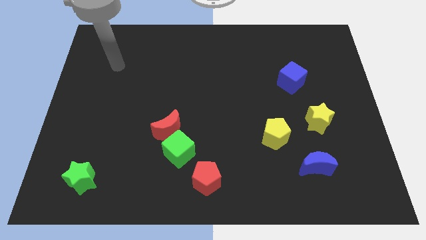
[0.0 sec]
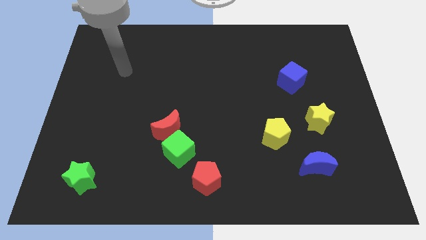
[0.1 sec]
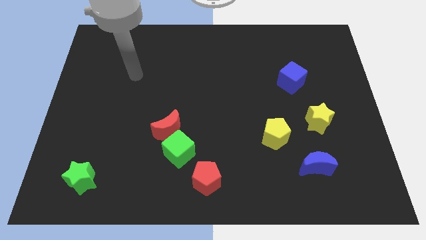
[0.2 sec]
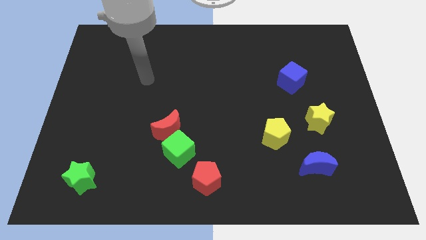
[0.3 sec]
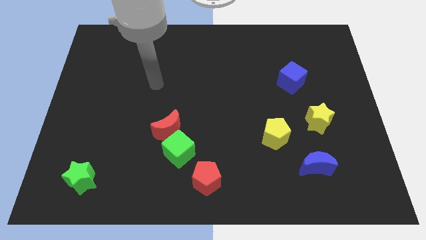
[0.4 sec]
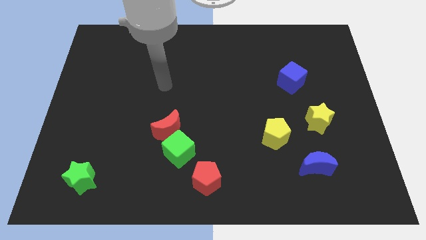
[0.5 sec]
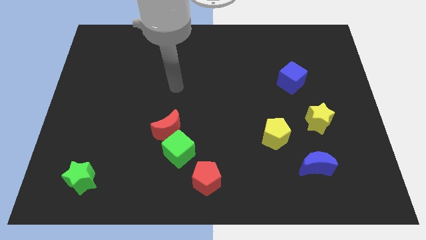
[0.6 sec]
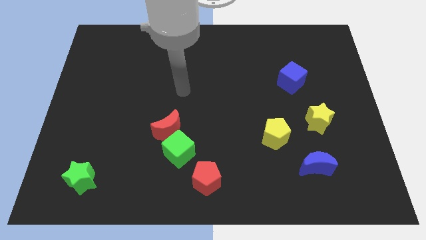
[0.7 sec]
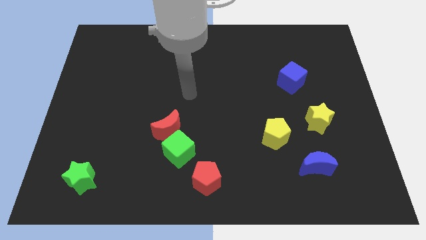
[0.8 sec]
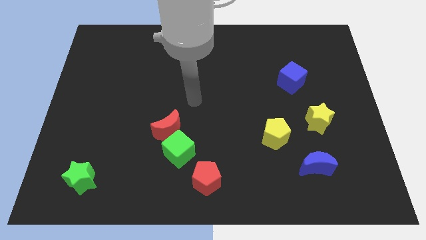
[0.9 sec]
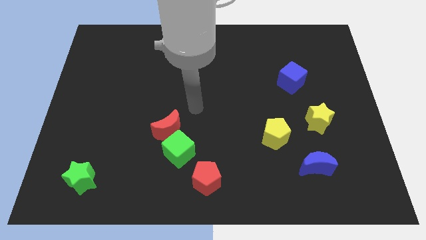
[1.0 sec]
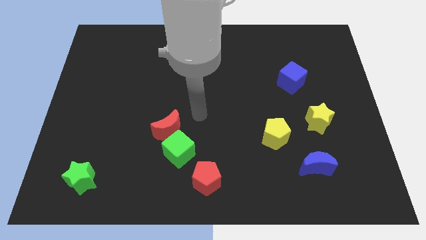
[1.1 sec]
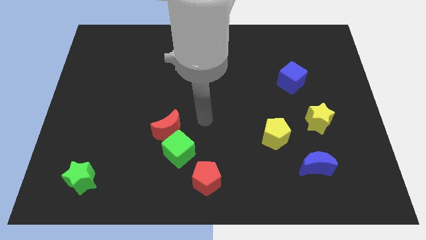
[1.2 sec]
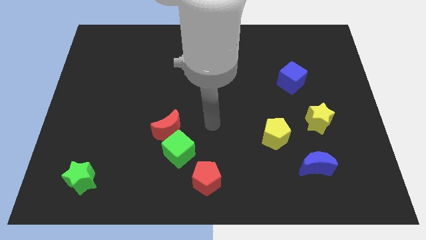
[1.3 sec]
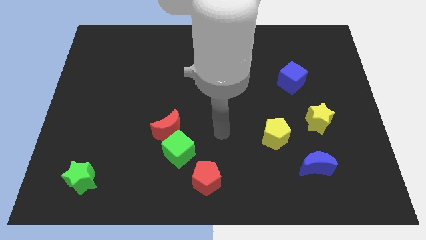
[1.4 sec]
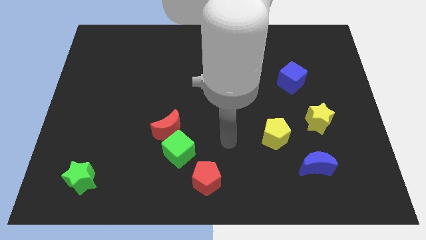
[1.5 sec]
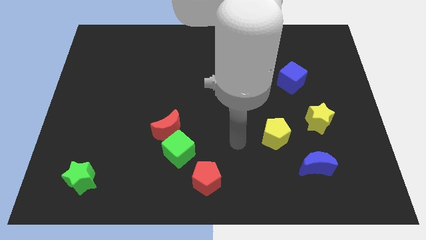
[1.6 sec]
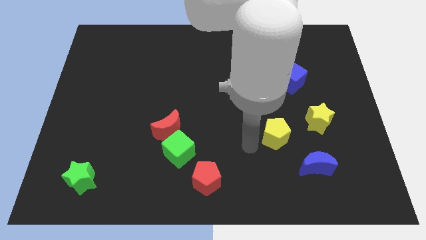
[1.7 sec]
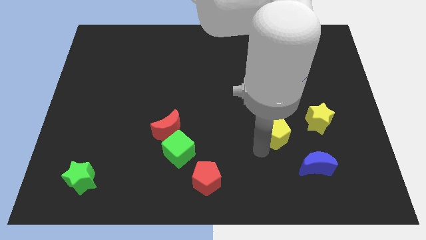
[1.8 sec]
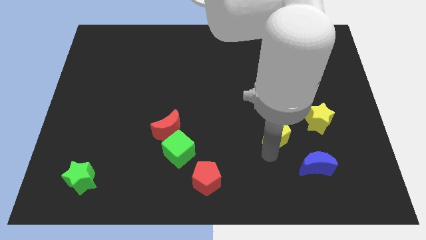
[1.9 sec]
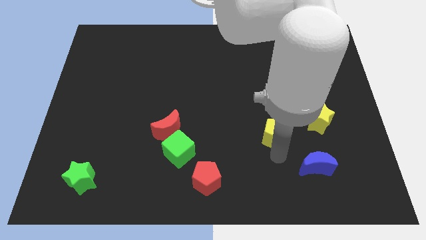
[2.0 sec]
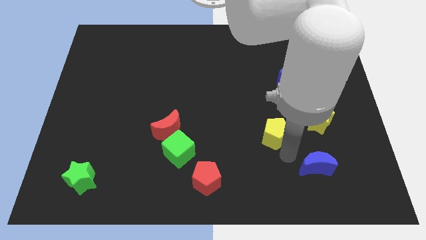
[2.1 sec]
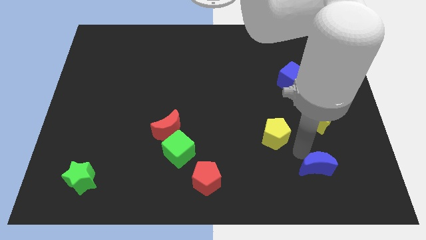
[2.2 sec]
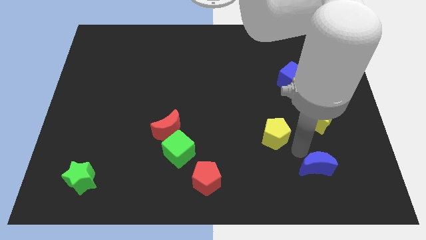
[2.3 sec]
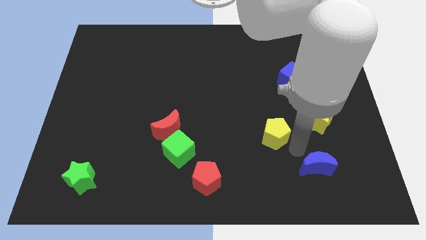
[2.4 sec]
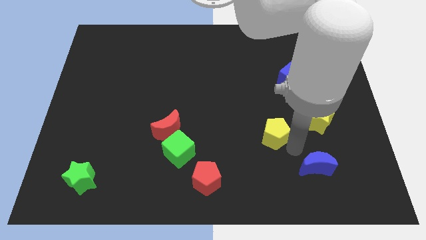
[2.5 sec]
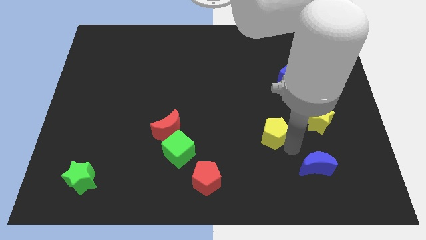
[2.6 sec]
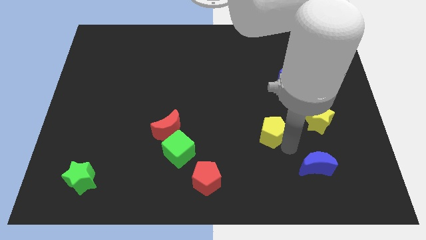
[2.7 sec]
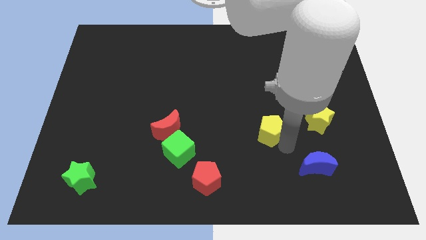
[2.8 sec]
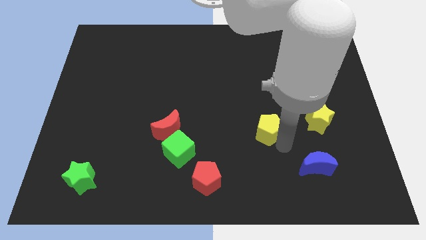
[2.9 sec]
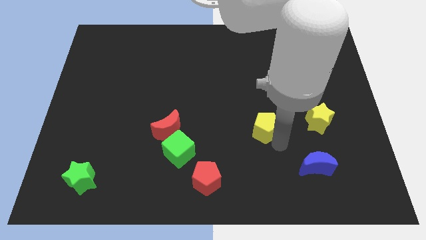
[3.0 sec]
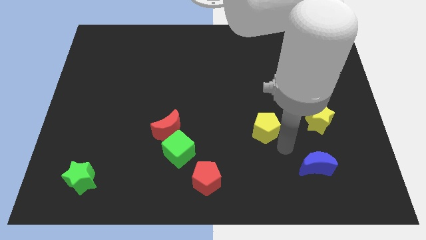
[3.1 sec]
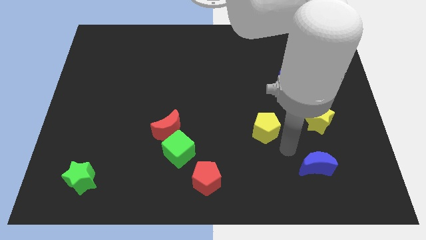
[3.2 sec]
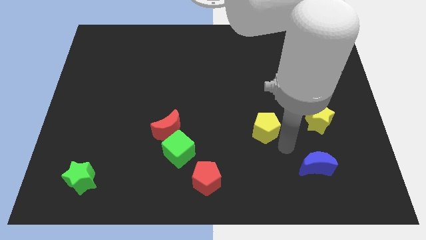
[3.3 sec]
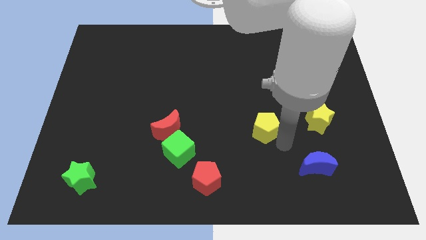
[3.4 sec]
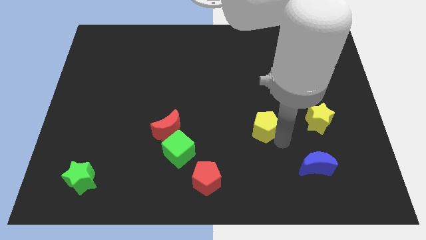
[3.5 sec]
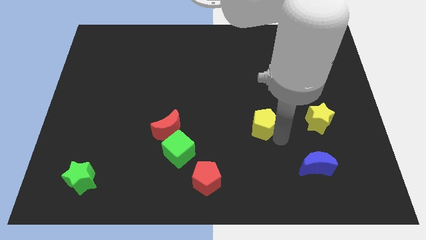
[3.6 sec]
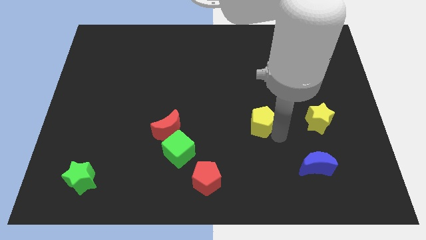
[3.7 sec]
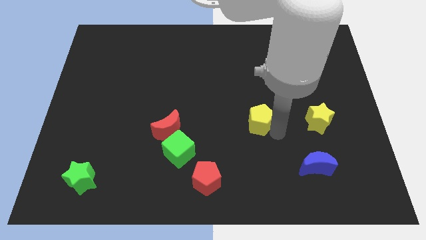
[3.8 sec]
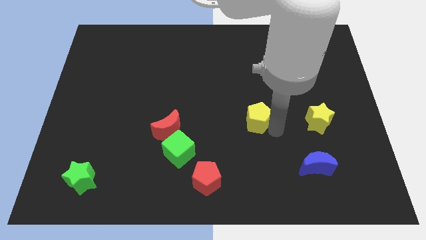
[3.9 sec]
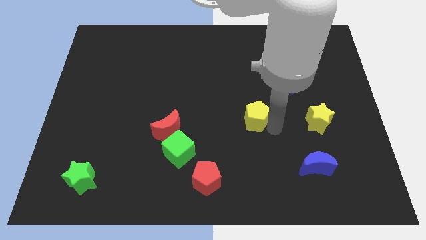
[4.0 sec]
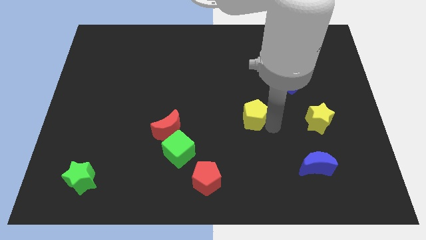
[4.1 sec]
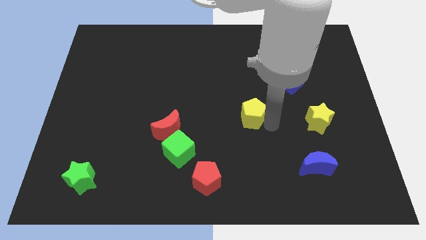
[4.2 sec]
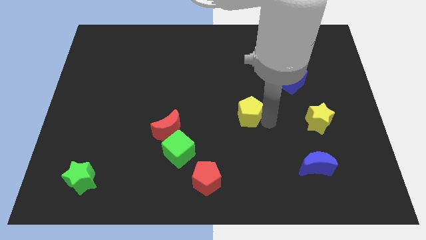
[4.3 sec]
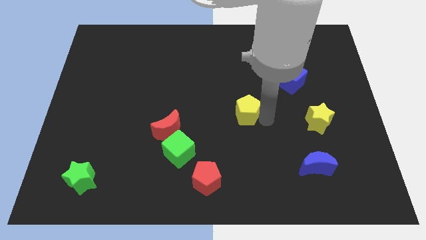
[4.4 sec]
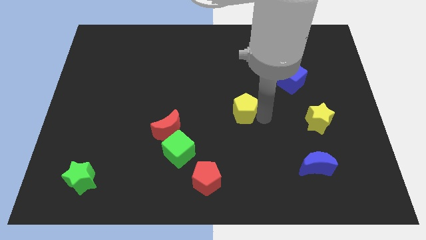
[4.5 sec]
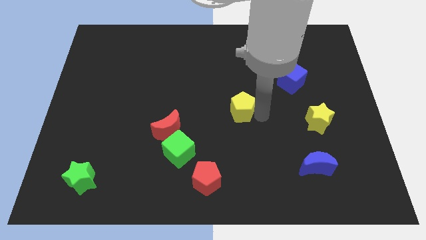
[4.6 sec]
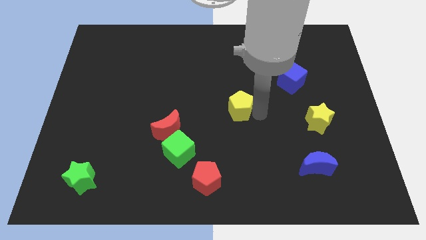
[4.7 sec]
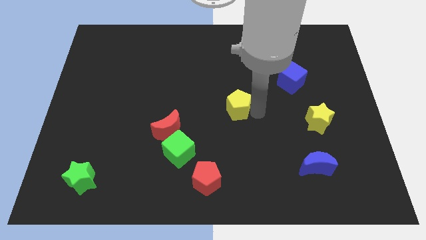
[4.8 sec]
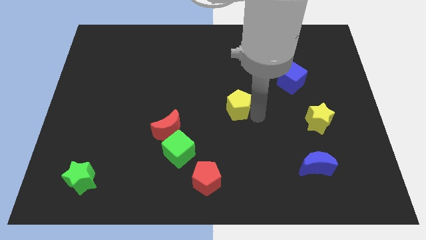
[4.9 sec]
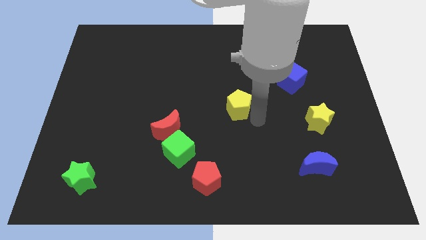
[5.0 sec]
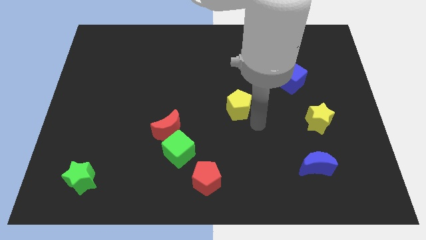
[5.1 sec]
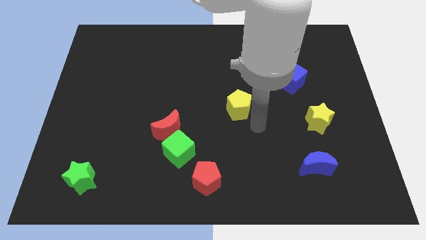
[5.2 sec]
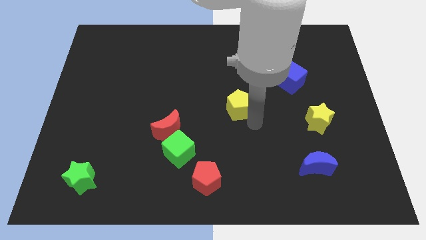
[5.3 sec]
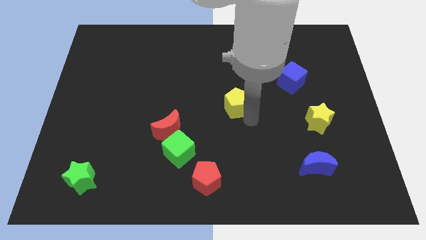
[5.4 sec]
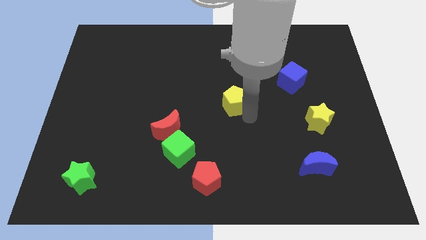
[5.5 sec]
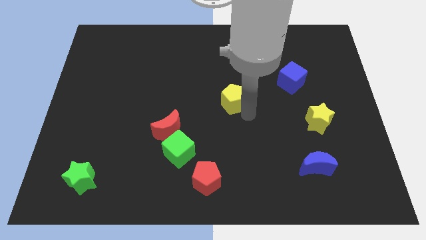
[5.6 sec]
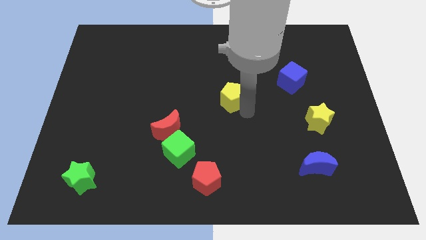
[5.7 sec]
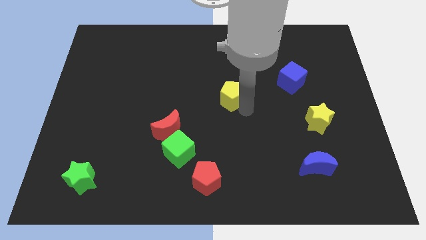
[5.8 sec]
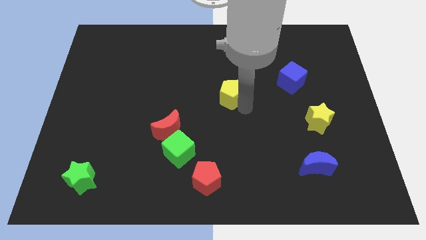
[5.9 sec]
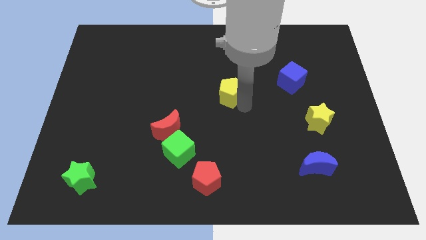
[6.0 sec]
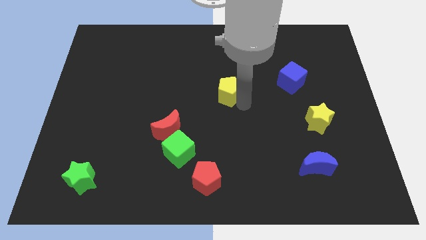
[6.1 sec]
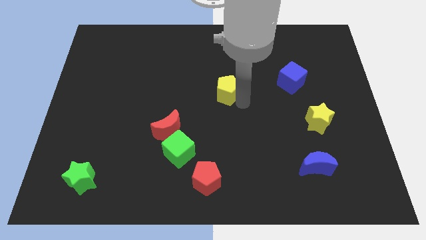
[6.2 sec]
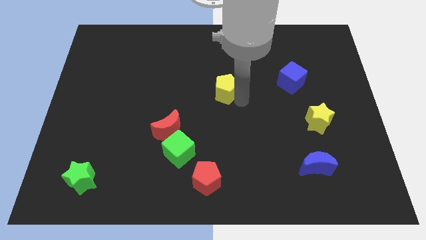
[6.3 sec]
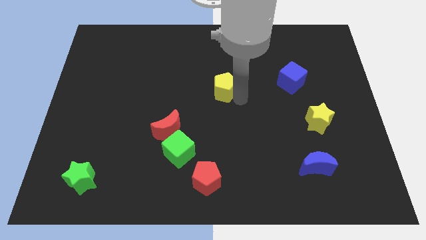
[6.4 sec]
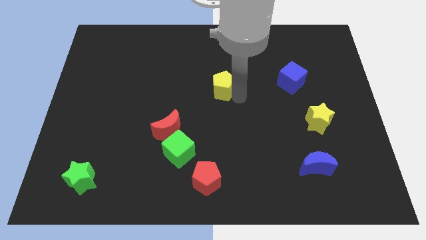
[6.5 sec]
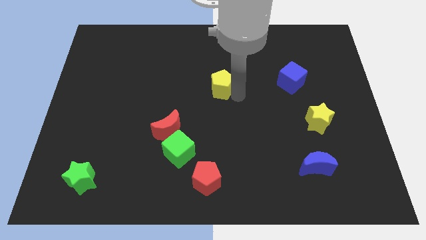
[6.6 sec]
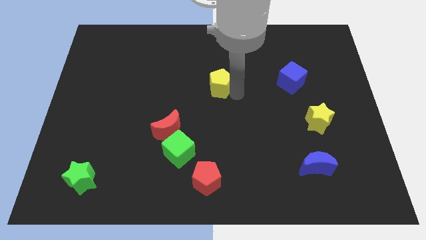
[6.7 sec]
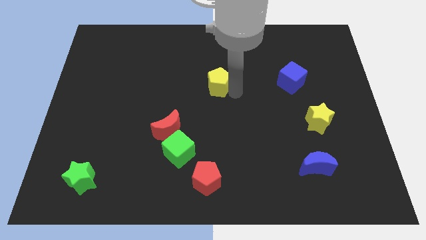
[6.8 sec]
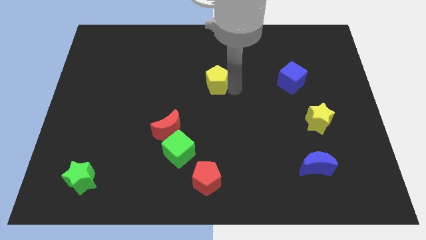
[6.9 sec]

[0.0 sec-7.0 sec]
move the yellow pentagon diagonally upwards and left

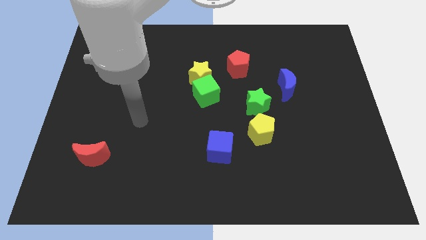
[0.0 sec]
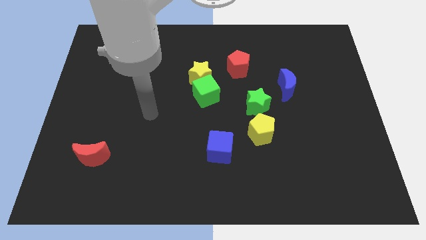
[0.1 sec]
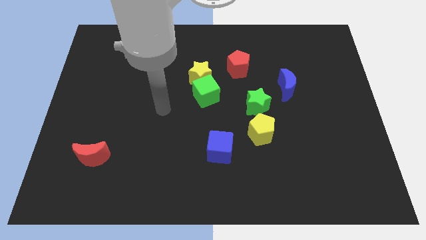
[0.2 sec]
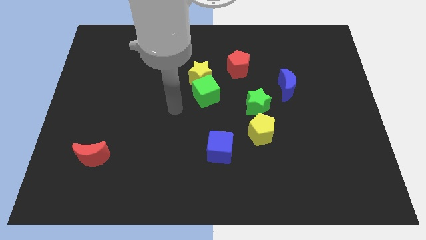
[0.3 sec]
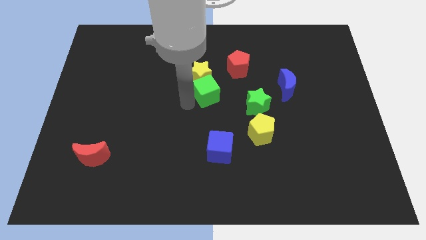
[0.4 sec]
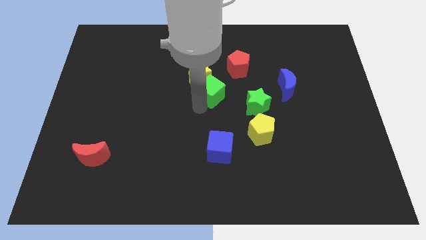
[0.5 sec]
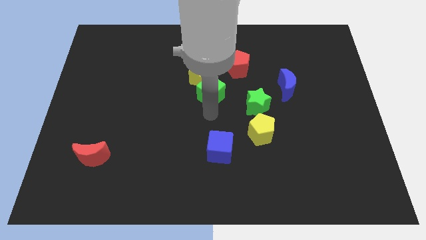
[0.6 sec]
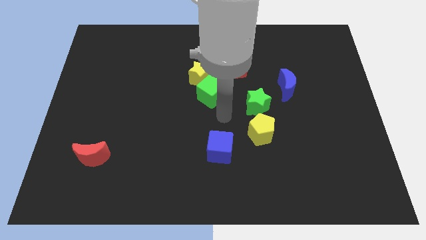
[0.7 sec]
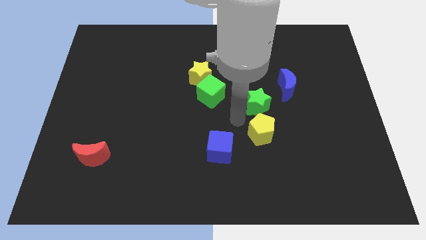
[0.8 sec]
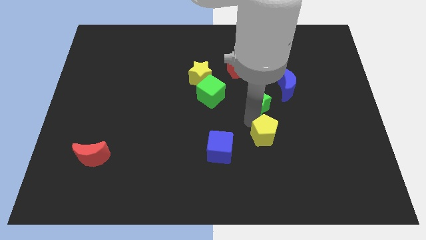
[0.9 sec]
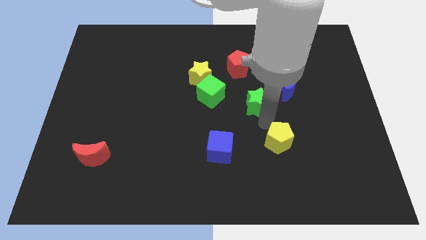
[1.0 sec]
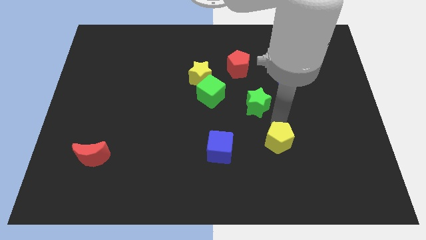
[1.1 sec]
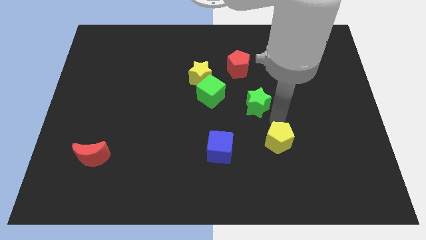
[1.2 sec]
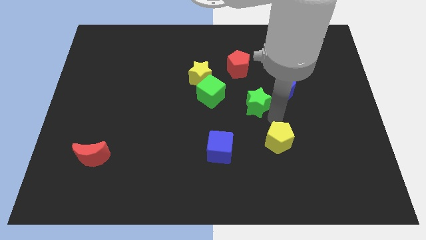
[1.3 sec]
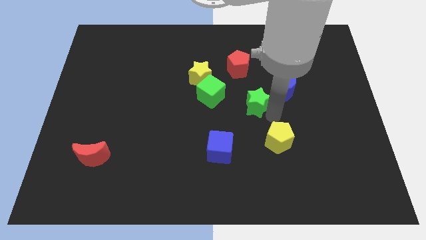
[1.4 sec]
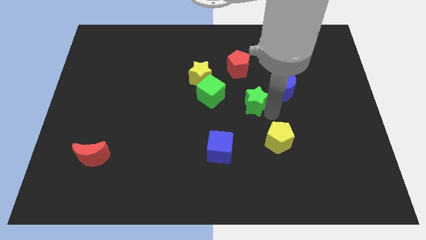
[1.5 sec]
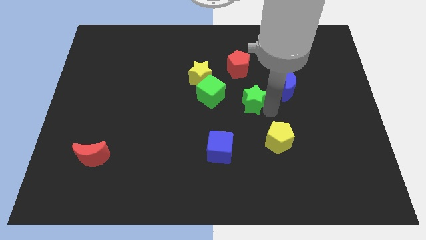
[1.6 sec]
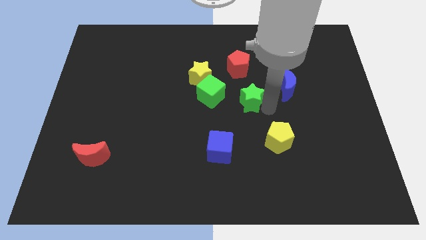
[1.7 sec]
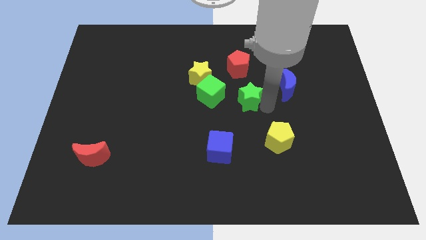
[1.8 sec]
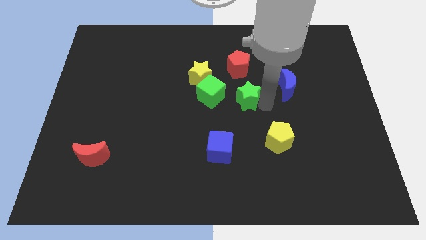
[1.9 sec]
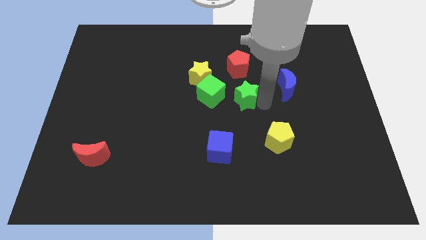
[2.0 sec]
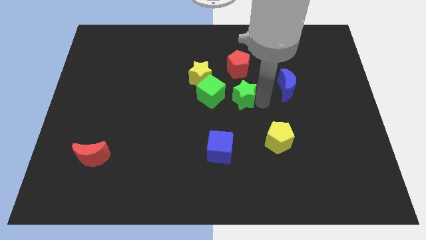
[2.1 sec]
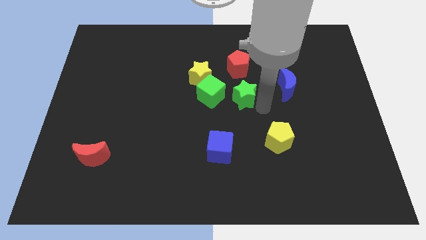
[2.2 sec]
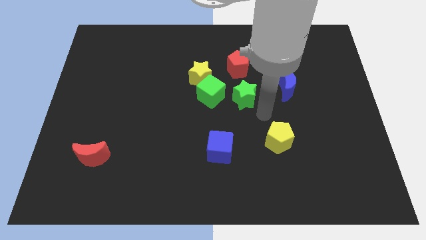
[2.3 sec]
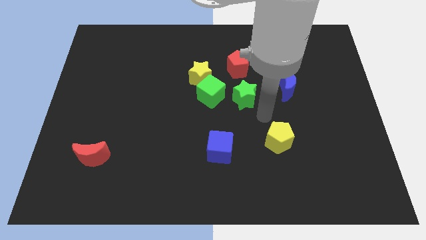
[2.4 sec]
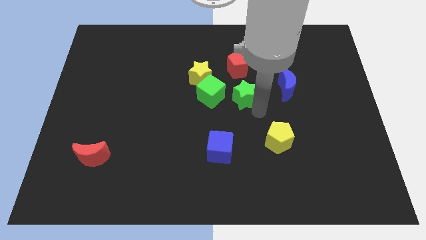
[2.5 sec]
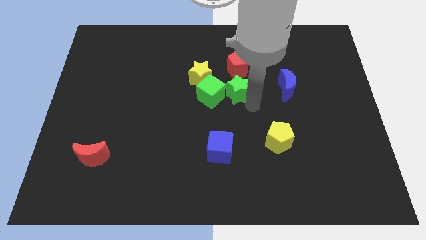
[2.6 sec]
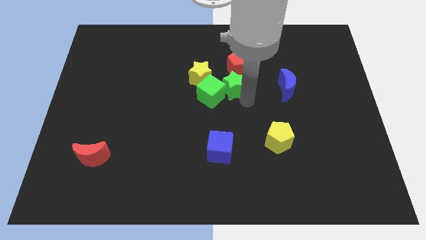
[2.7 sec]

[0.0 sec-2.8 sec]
push the green star a little upwards and to the left
